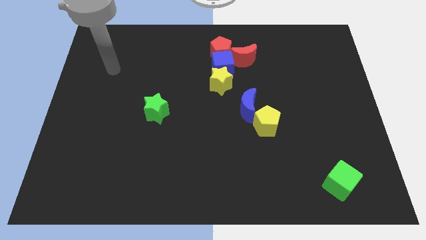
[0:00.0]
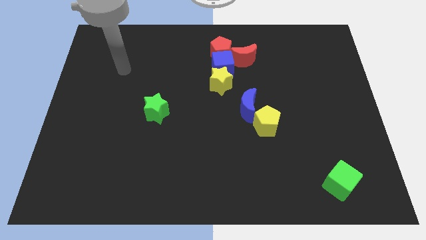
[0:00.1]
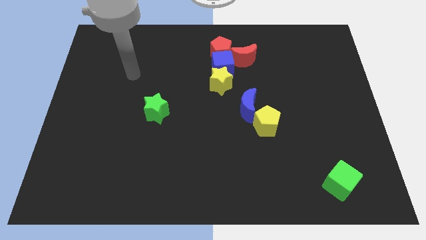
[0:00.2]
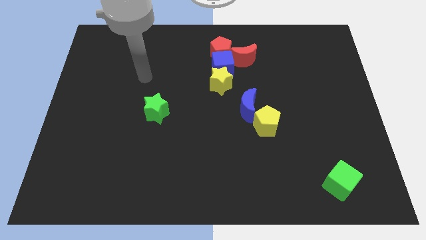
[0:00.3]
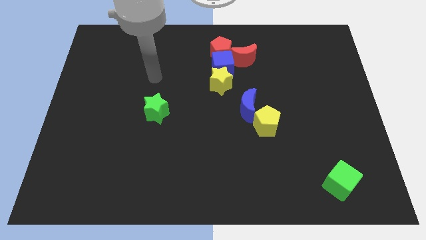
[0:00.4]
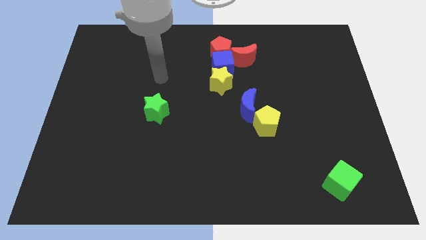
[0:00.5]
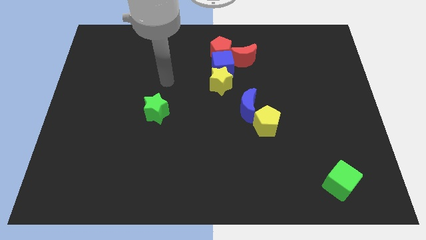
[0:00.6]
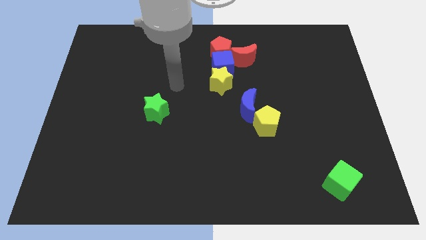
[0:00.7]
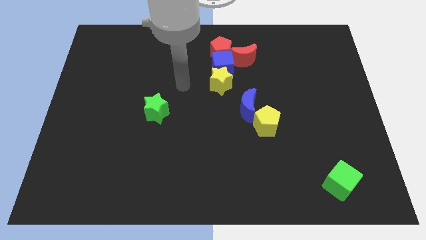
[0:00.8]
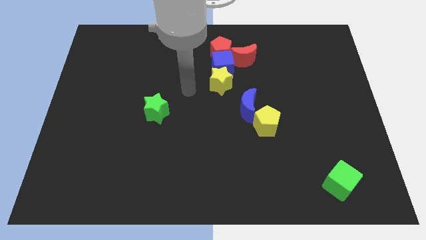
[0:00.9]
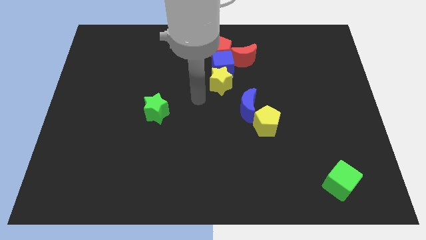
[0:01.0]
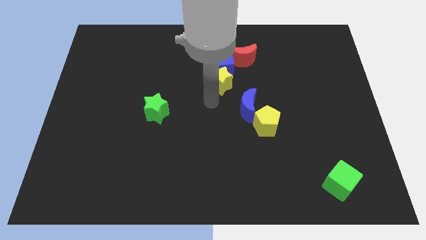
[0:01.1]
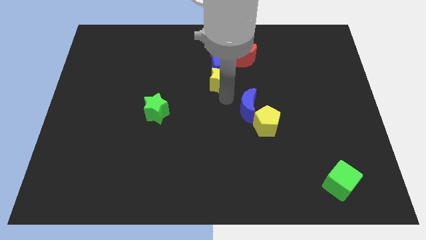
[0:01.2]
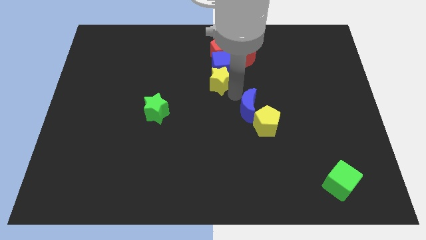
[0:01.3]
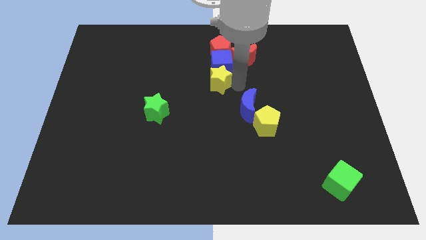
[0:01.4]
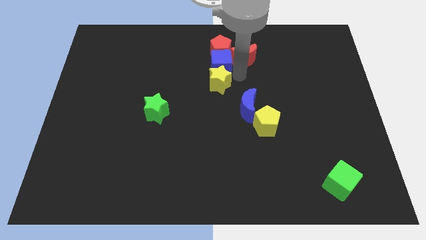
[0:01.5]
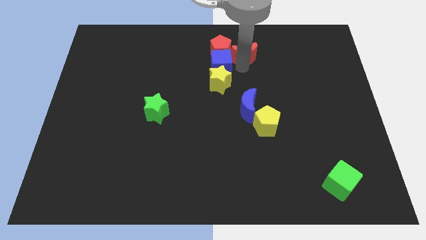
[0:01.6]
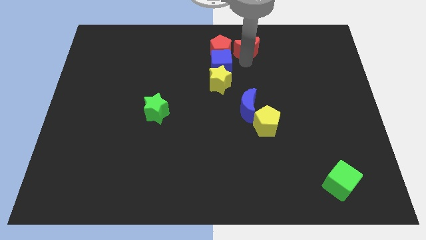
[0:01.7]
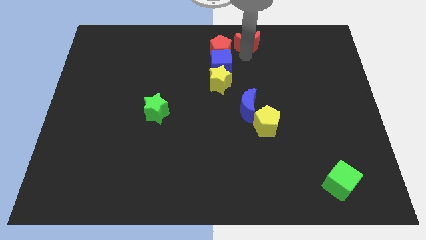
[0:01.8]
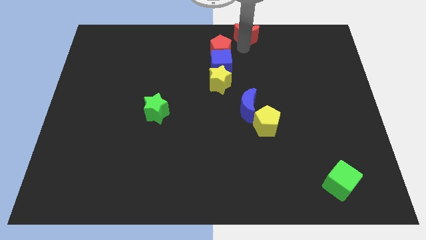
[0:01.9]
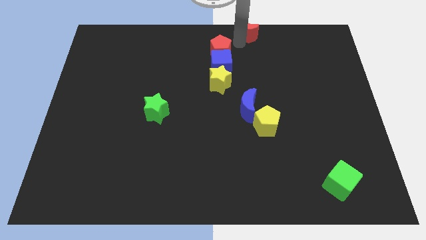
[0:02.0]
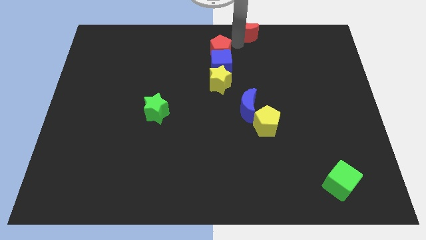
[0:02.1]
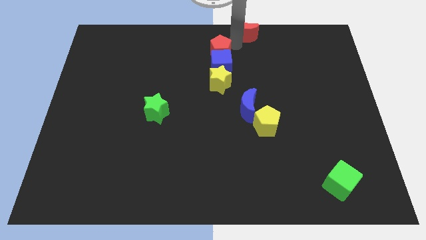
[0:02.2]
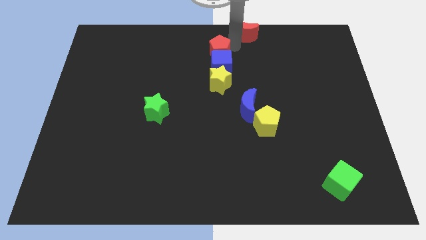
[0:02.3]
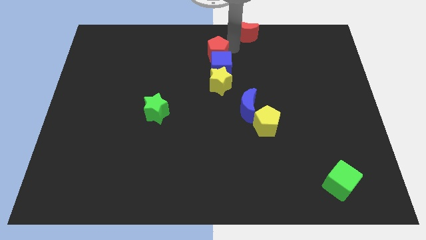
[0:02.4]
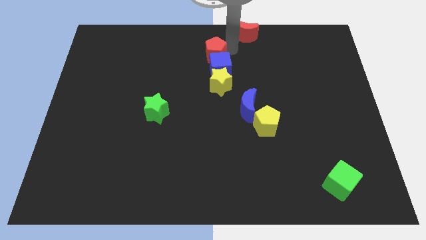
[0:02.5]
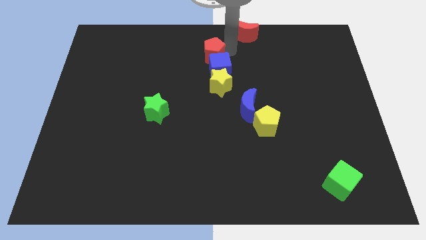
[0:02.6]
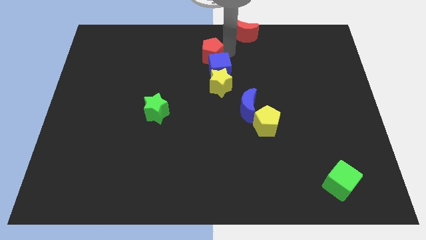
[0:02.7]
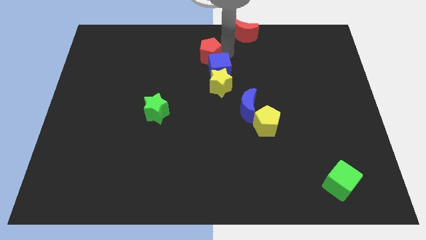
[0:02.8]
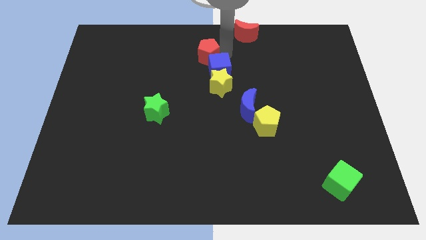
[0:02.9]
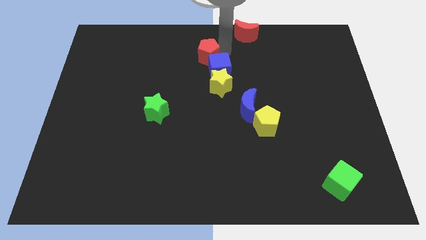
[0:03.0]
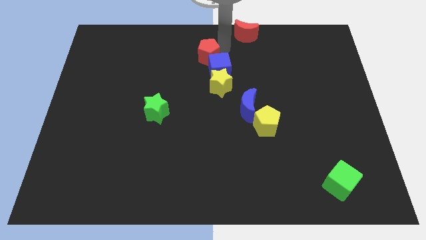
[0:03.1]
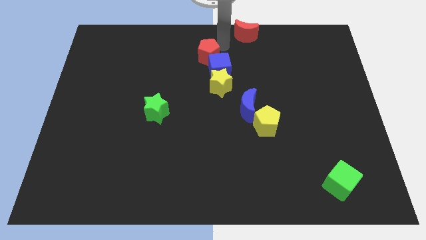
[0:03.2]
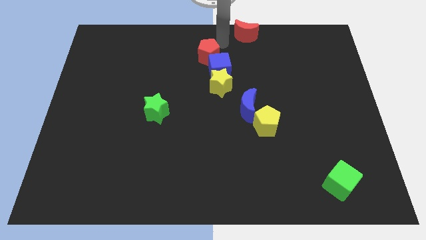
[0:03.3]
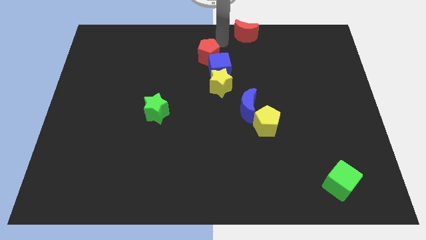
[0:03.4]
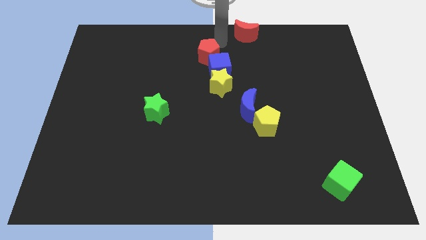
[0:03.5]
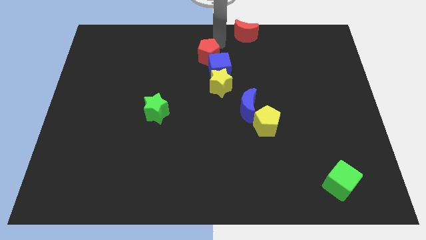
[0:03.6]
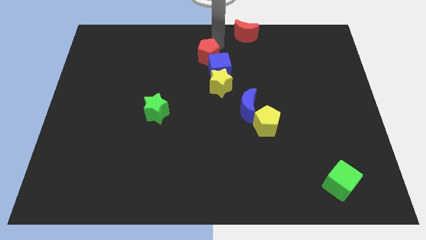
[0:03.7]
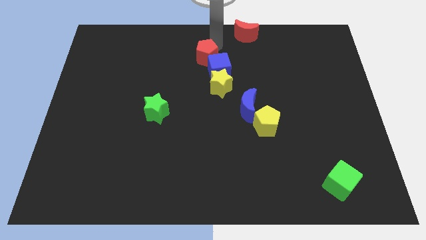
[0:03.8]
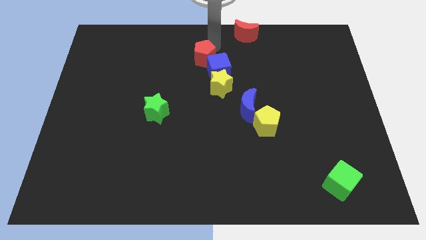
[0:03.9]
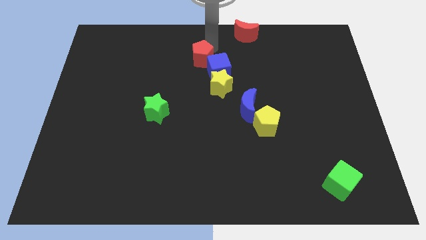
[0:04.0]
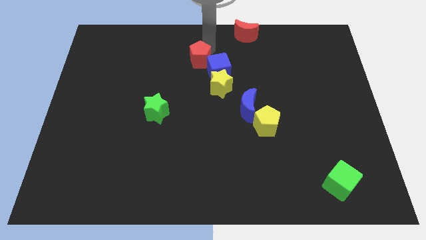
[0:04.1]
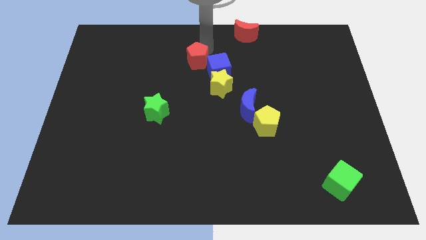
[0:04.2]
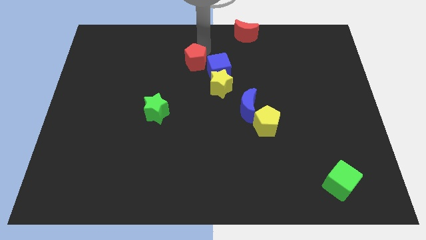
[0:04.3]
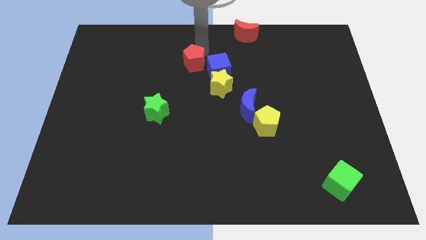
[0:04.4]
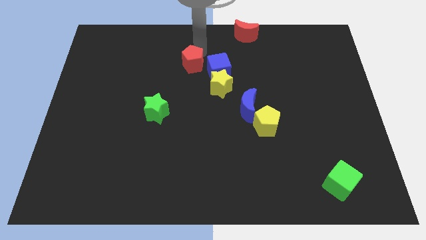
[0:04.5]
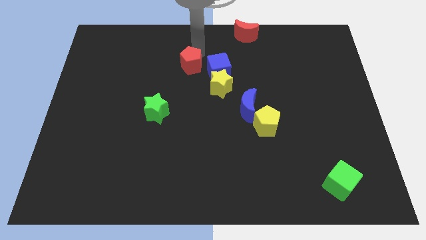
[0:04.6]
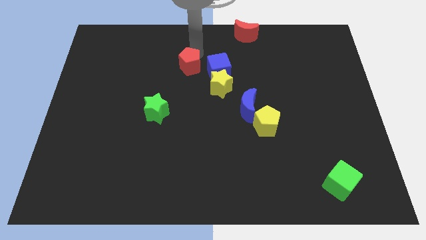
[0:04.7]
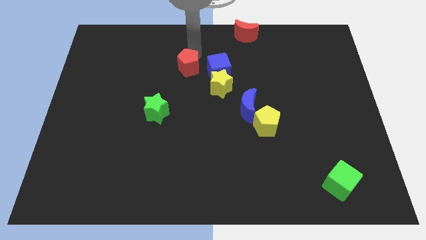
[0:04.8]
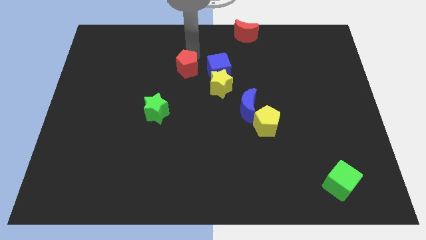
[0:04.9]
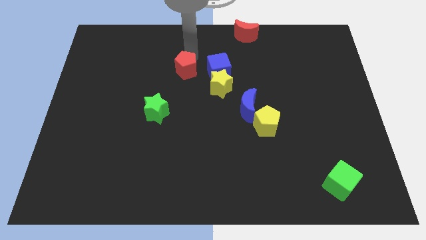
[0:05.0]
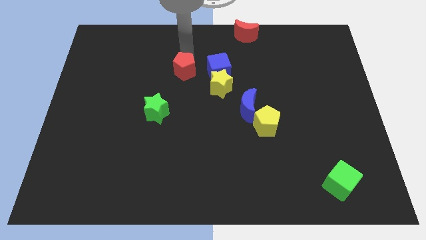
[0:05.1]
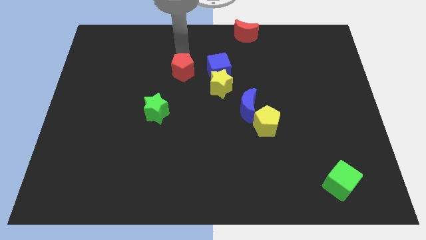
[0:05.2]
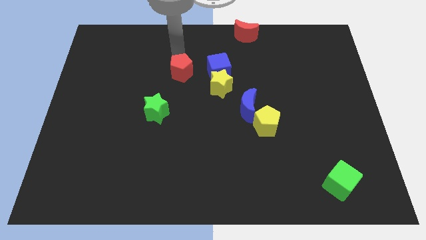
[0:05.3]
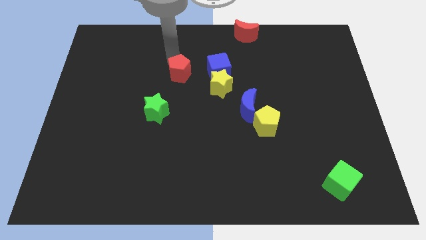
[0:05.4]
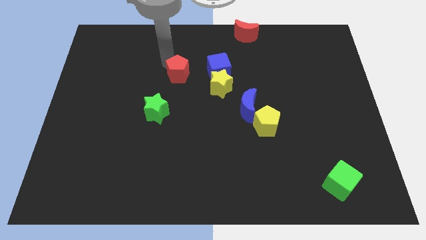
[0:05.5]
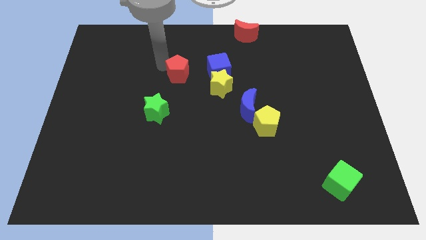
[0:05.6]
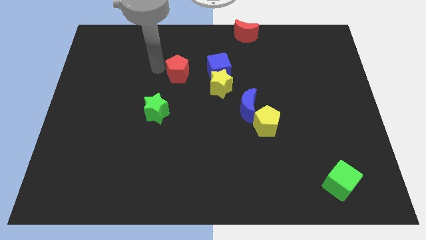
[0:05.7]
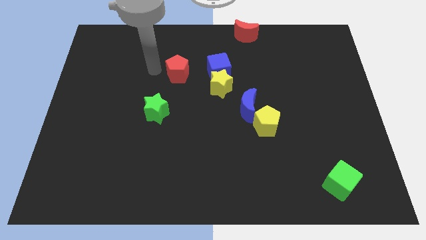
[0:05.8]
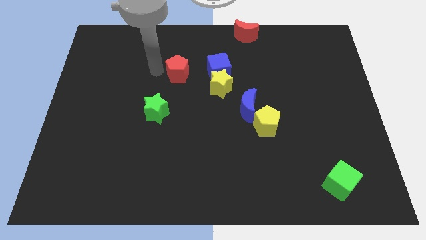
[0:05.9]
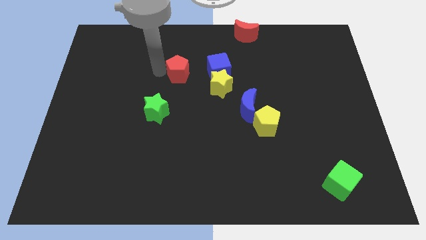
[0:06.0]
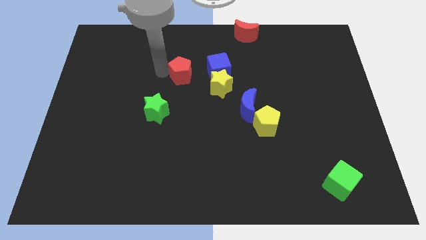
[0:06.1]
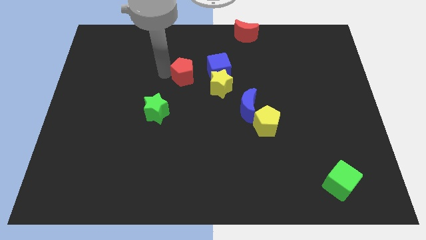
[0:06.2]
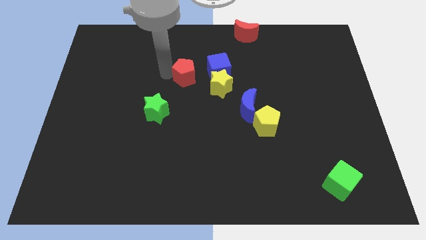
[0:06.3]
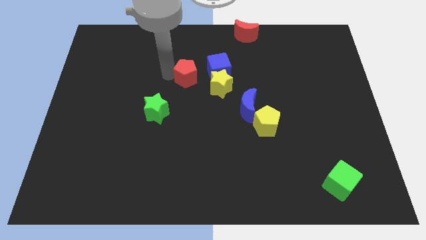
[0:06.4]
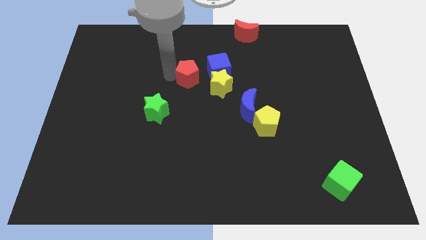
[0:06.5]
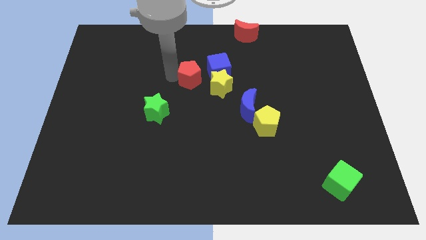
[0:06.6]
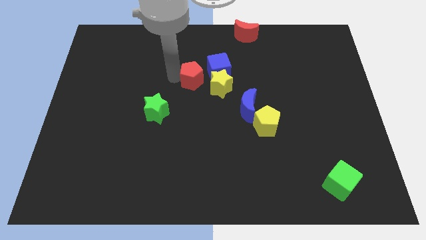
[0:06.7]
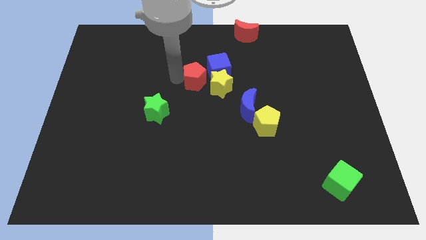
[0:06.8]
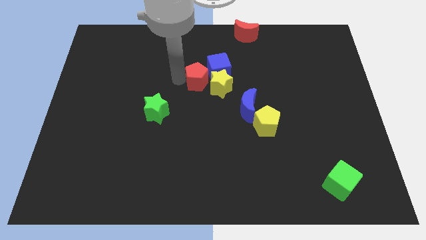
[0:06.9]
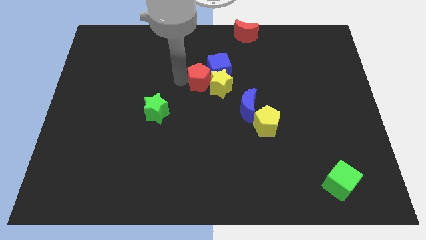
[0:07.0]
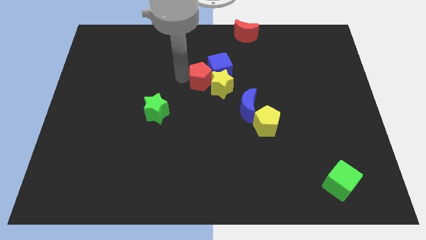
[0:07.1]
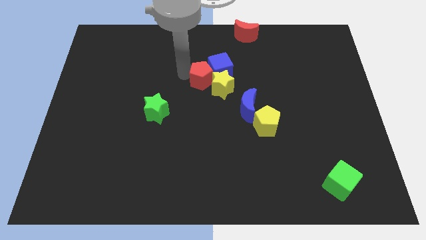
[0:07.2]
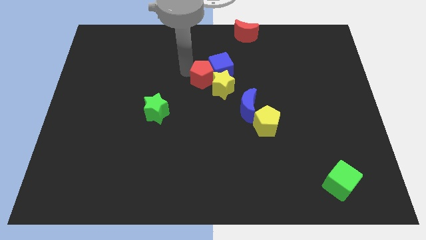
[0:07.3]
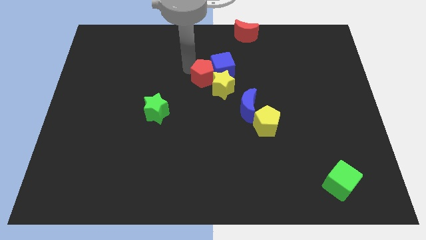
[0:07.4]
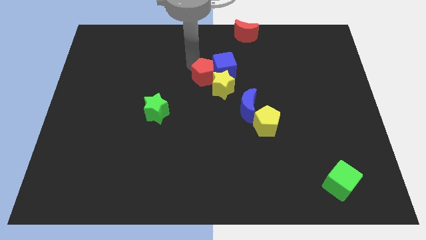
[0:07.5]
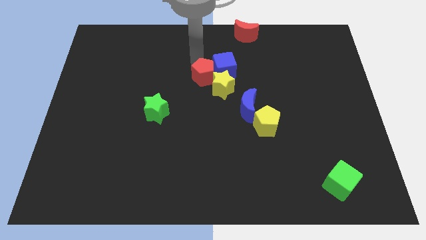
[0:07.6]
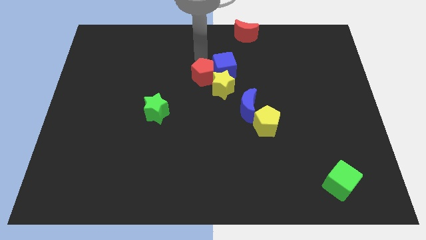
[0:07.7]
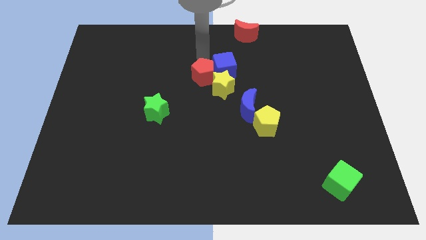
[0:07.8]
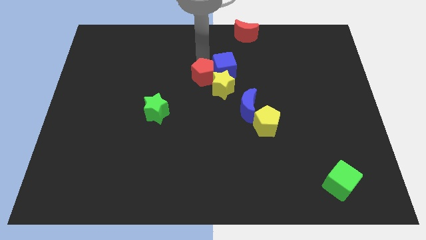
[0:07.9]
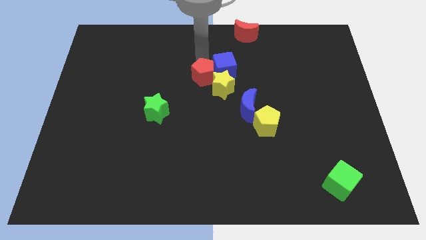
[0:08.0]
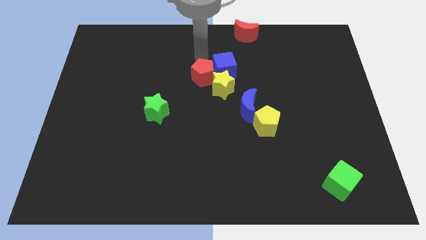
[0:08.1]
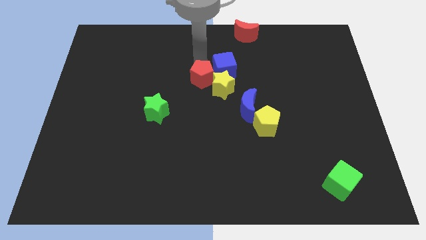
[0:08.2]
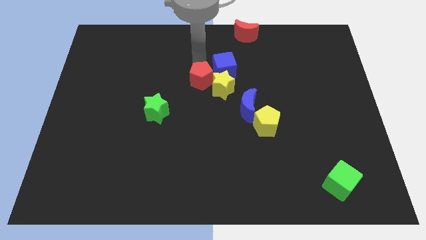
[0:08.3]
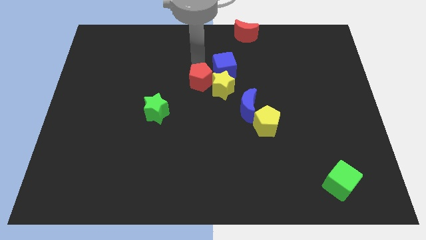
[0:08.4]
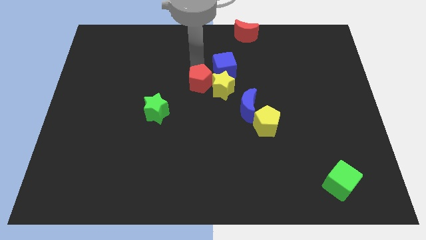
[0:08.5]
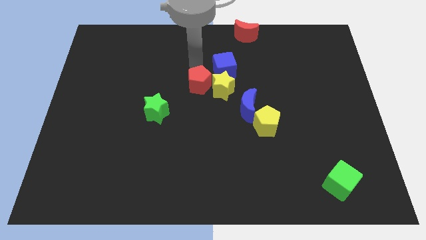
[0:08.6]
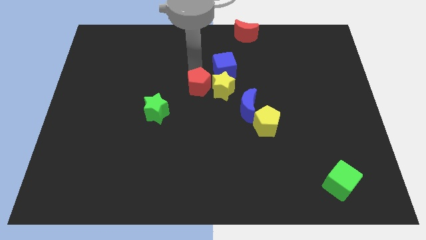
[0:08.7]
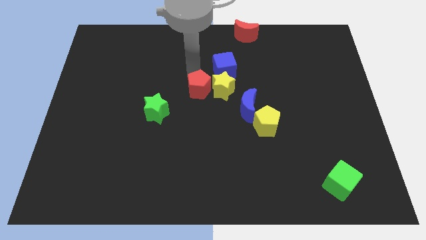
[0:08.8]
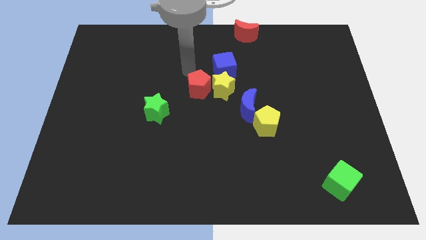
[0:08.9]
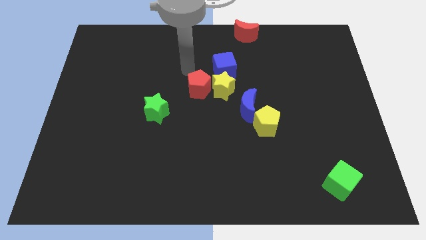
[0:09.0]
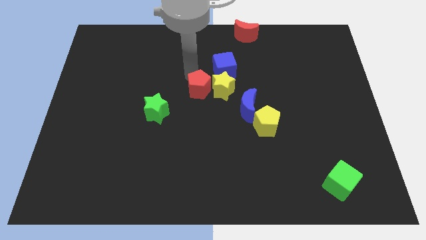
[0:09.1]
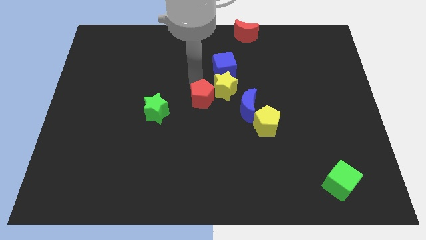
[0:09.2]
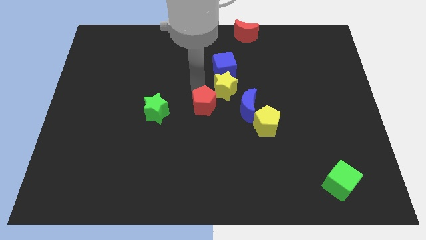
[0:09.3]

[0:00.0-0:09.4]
push the red pentagon to the bottom side of the yellow star
